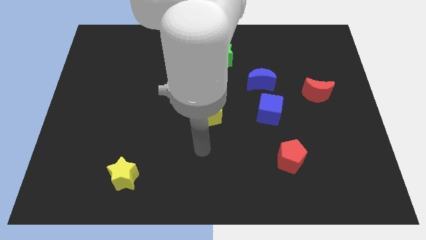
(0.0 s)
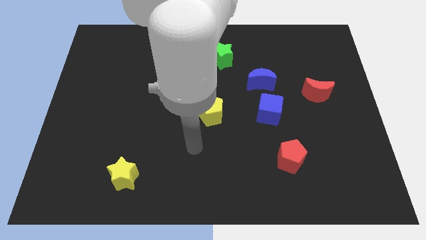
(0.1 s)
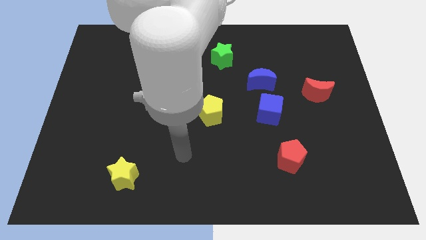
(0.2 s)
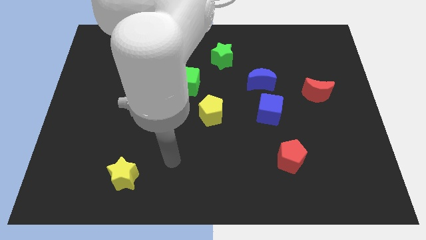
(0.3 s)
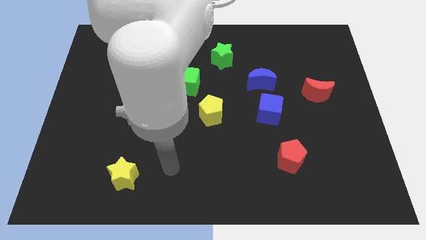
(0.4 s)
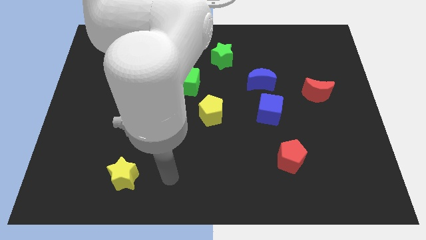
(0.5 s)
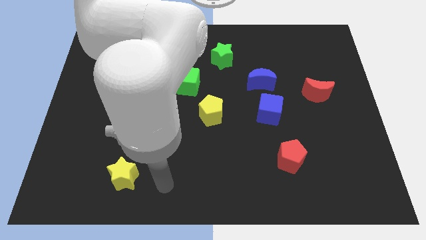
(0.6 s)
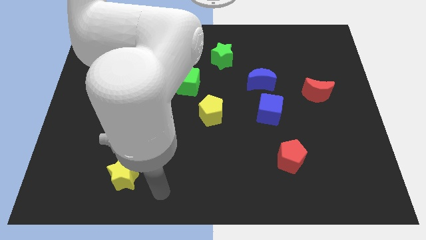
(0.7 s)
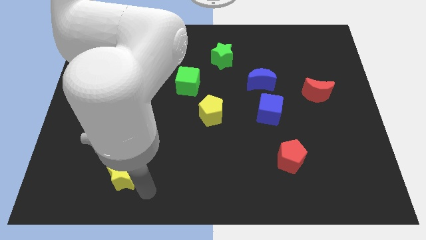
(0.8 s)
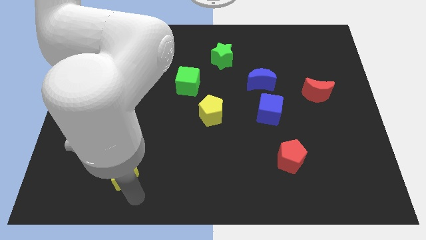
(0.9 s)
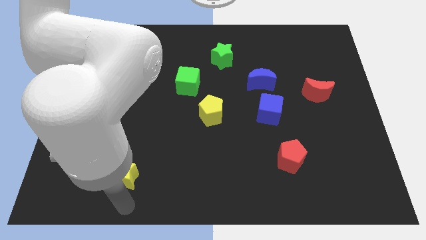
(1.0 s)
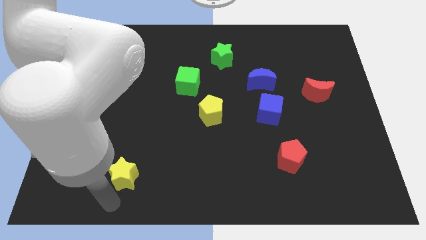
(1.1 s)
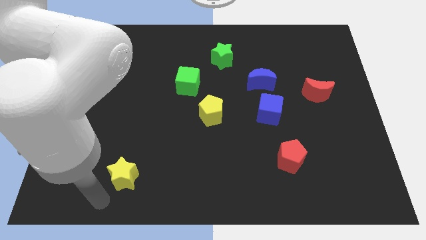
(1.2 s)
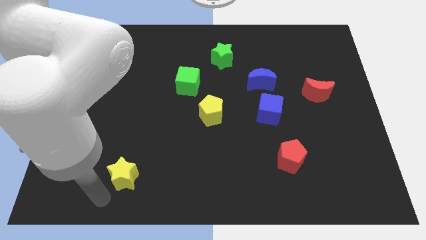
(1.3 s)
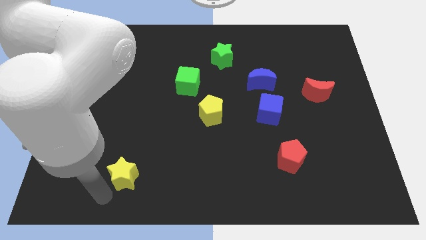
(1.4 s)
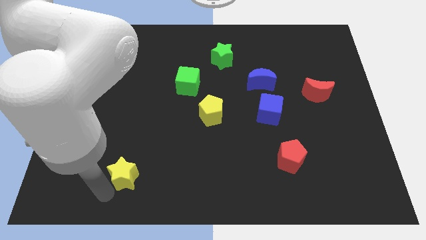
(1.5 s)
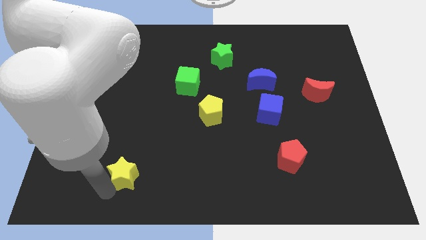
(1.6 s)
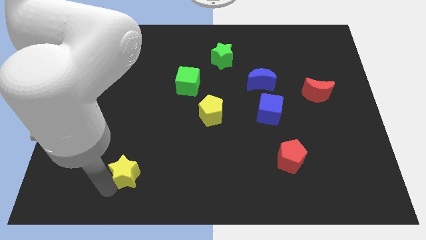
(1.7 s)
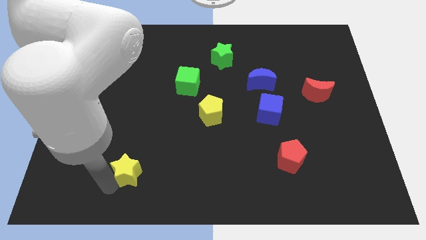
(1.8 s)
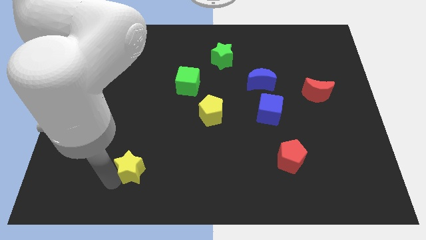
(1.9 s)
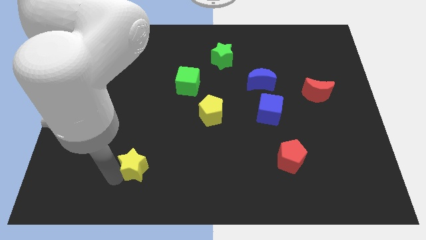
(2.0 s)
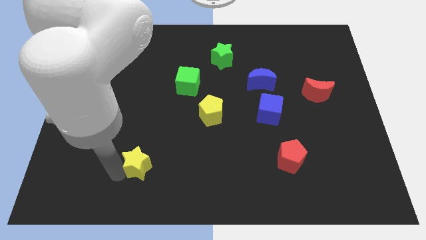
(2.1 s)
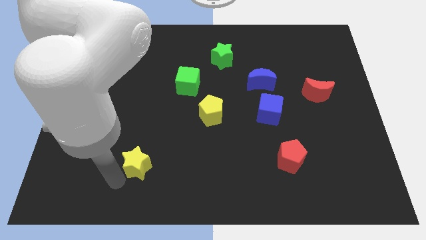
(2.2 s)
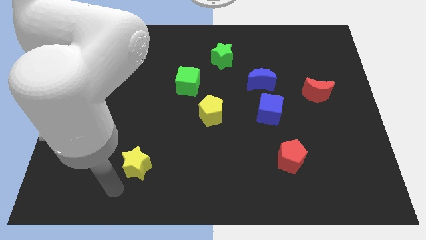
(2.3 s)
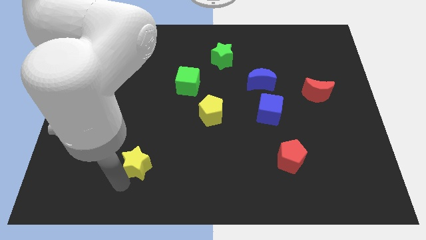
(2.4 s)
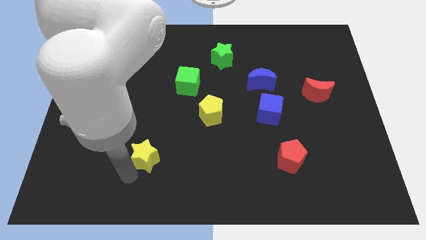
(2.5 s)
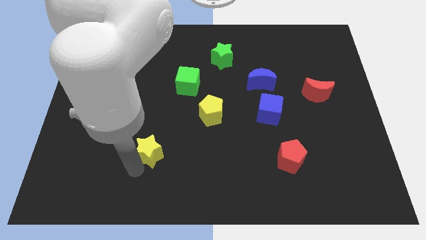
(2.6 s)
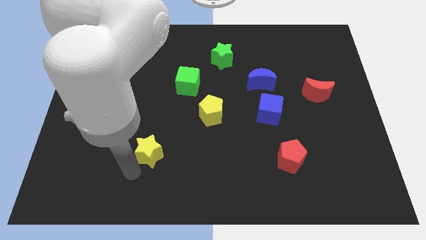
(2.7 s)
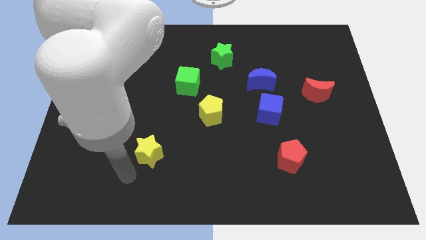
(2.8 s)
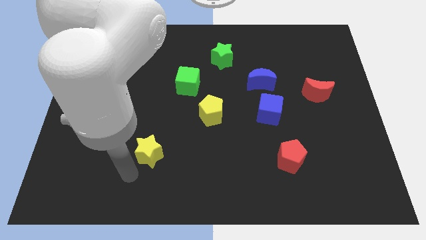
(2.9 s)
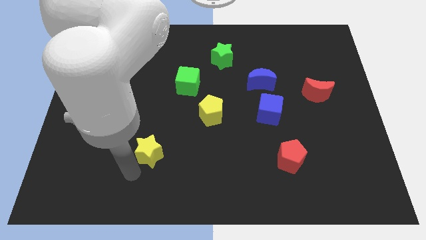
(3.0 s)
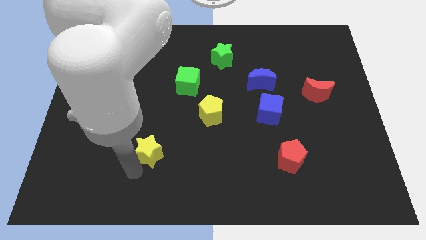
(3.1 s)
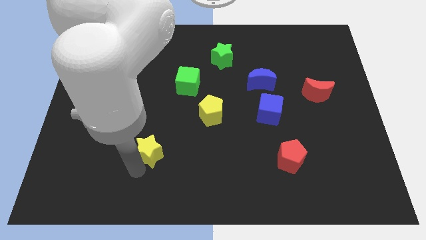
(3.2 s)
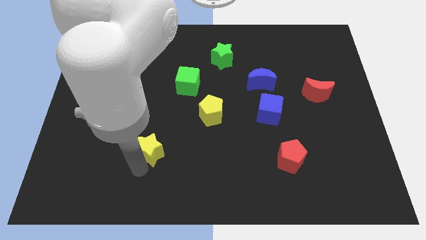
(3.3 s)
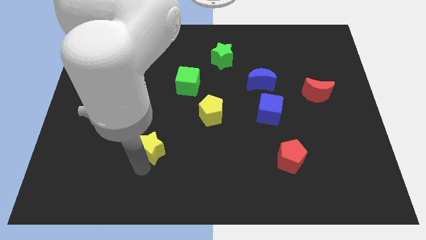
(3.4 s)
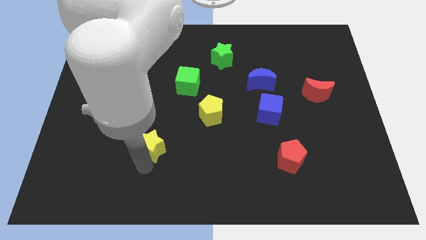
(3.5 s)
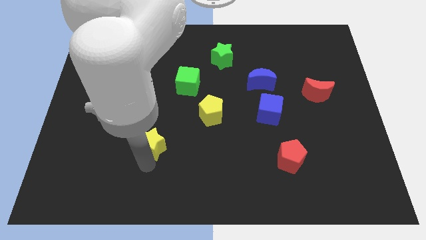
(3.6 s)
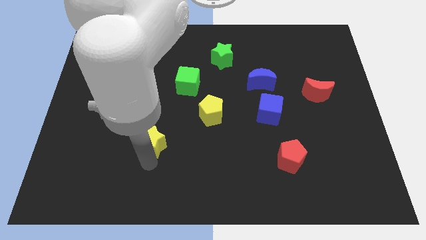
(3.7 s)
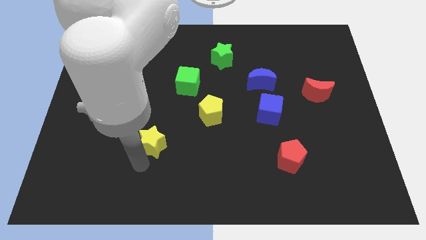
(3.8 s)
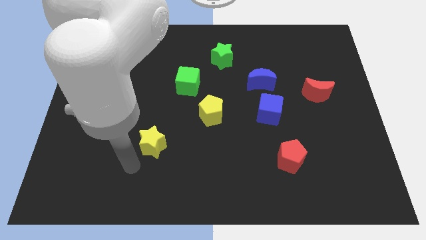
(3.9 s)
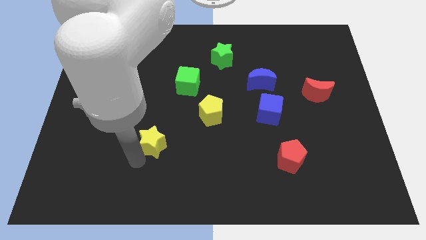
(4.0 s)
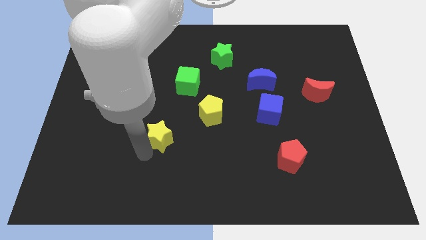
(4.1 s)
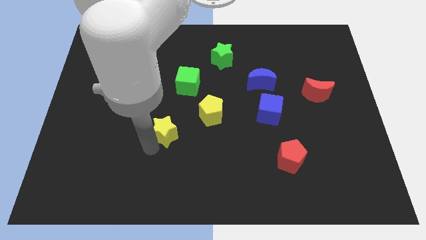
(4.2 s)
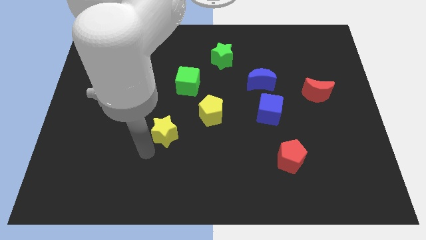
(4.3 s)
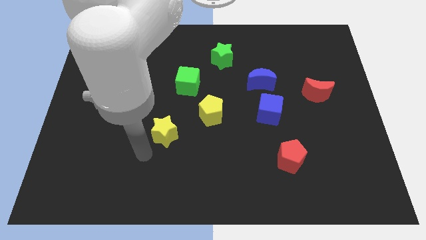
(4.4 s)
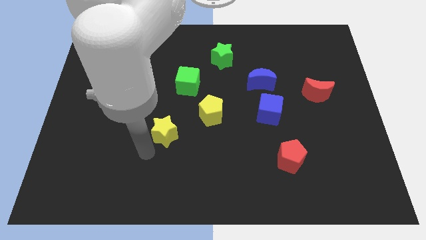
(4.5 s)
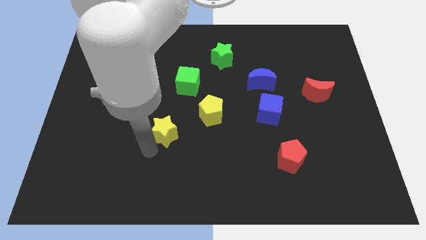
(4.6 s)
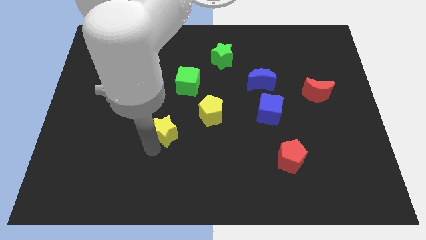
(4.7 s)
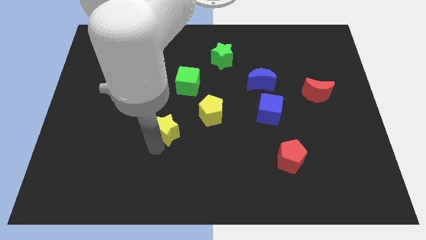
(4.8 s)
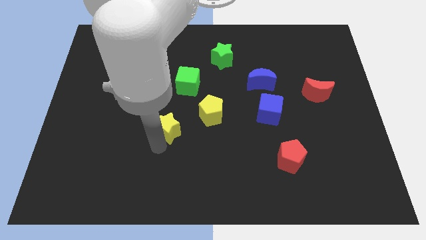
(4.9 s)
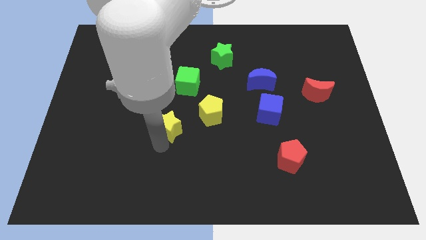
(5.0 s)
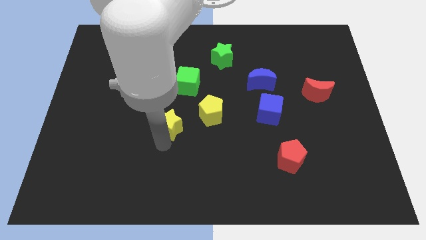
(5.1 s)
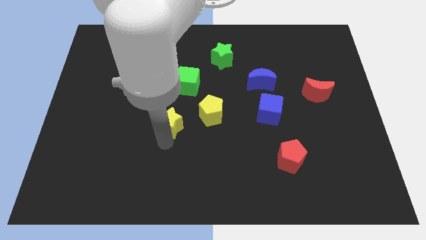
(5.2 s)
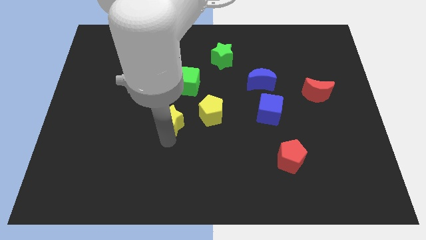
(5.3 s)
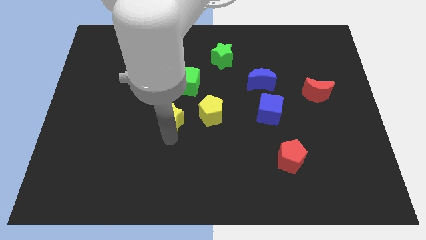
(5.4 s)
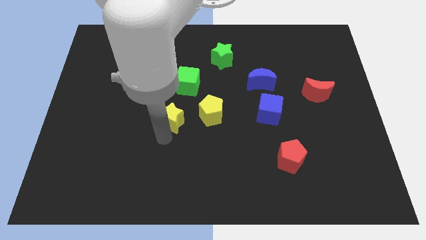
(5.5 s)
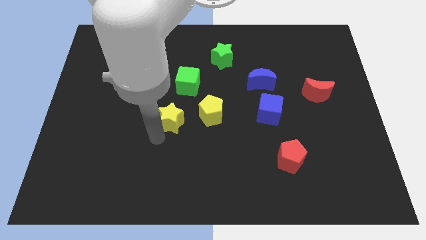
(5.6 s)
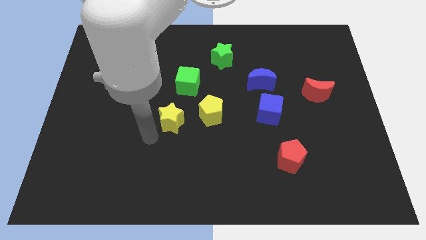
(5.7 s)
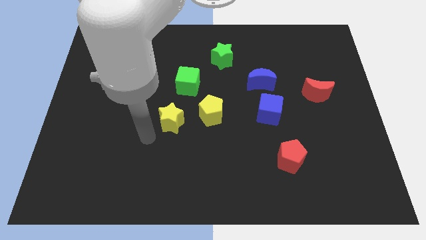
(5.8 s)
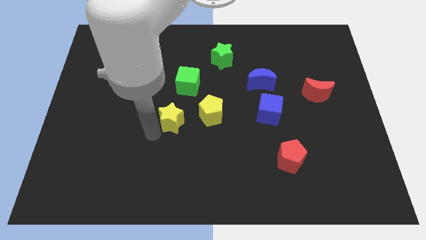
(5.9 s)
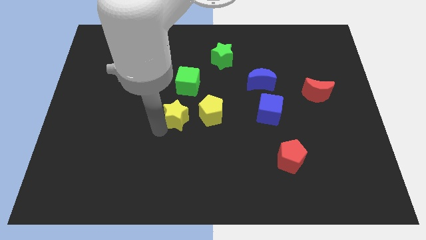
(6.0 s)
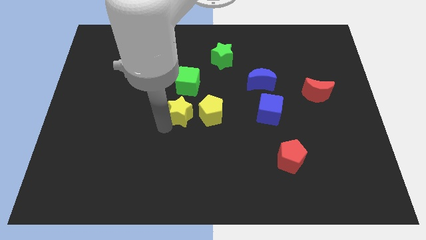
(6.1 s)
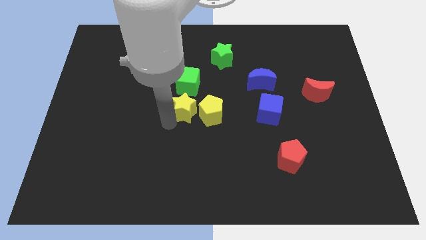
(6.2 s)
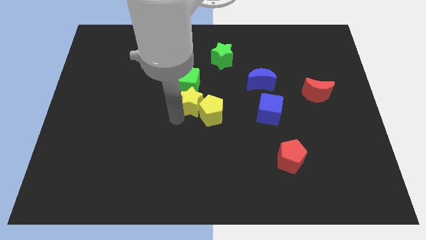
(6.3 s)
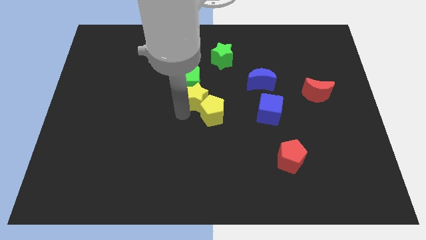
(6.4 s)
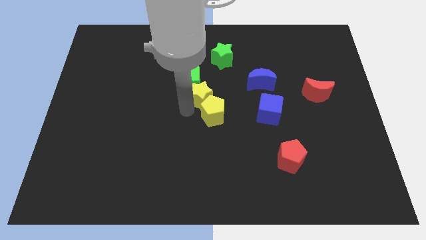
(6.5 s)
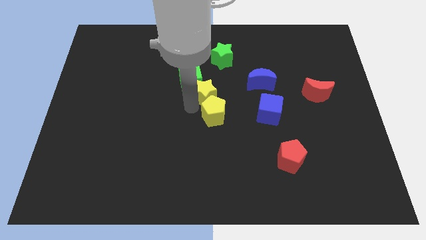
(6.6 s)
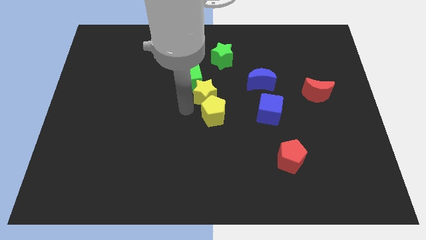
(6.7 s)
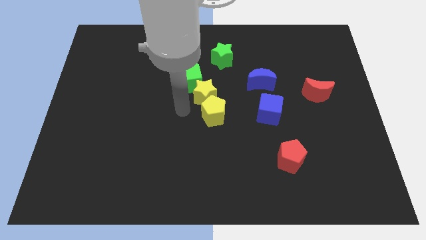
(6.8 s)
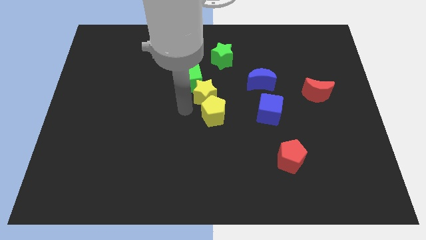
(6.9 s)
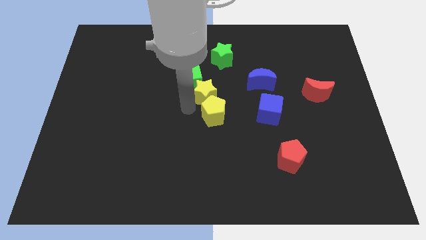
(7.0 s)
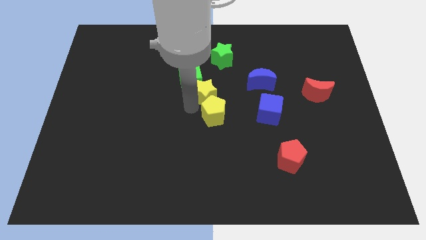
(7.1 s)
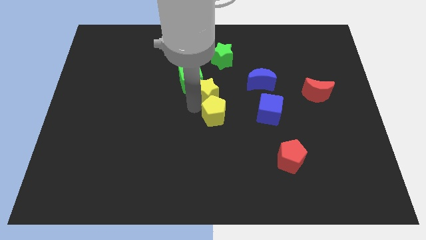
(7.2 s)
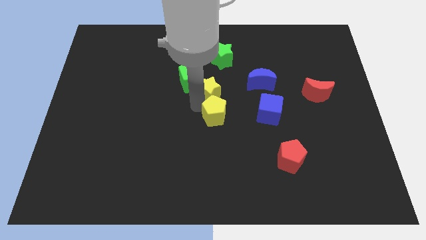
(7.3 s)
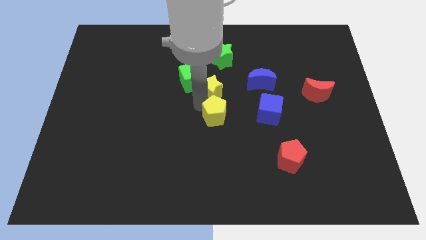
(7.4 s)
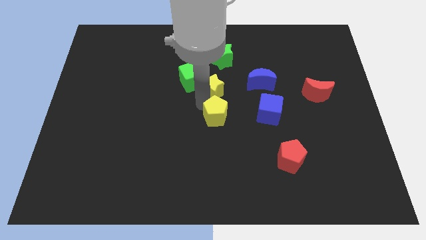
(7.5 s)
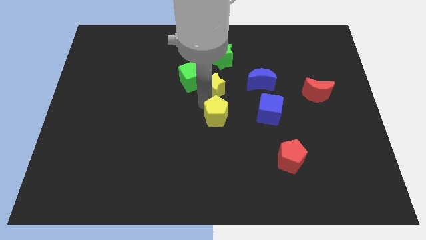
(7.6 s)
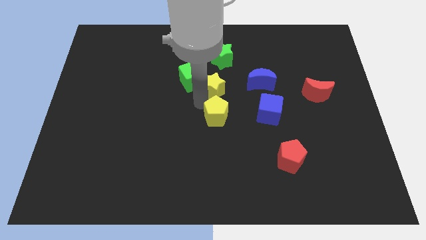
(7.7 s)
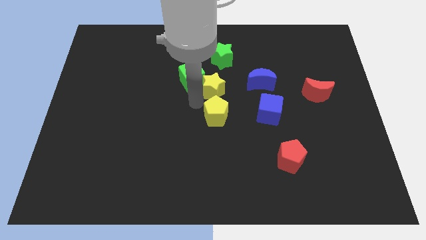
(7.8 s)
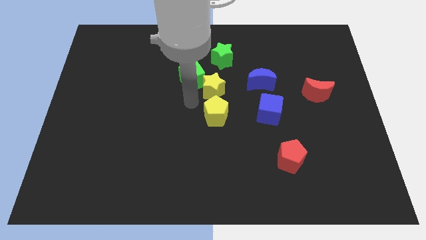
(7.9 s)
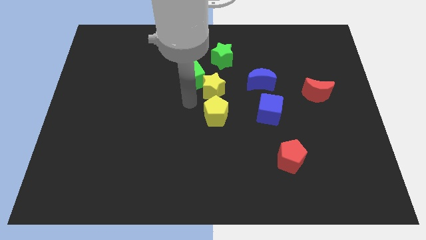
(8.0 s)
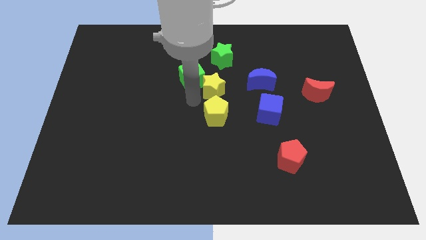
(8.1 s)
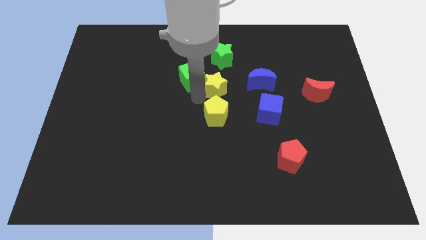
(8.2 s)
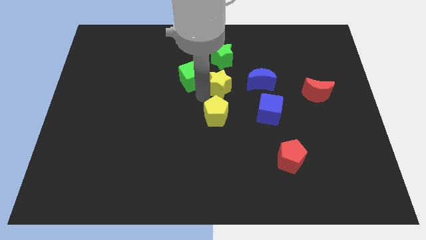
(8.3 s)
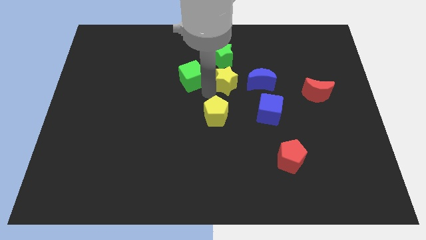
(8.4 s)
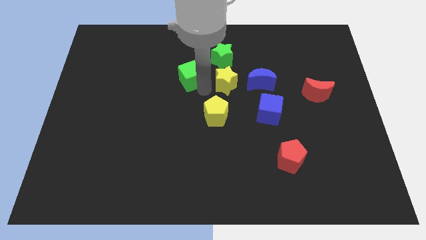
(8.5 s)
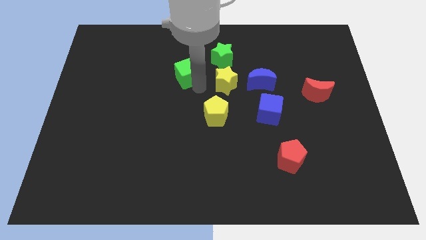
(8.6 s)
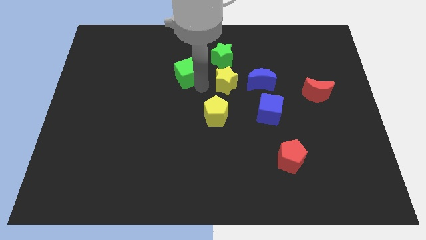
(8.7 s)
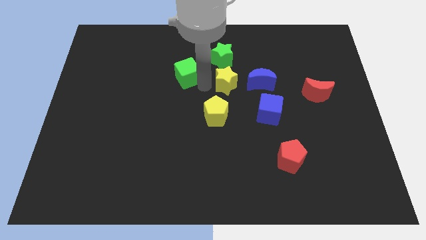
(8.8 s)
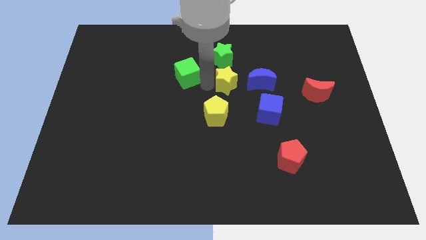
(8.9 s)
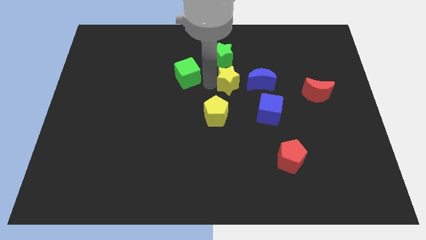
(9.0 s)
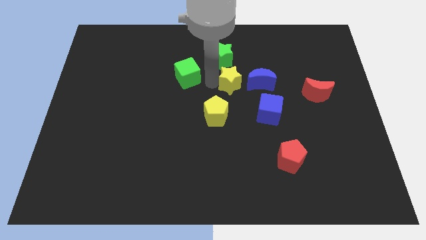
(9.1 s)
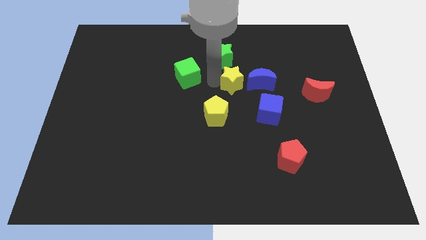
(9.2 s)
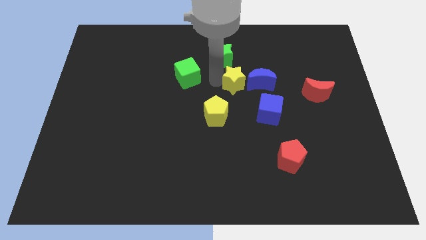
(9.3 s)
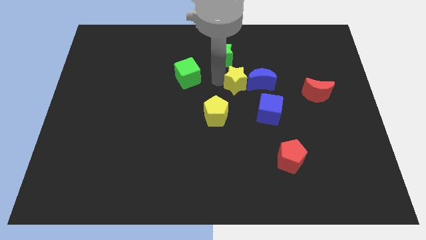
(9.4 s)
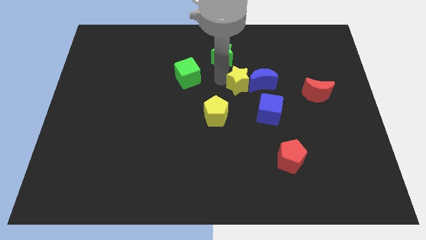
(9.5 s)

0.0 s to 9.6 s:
push the yellow star close to the blue moon
